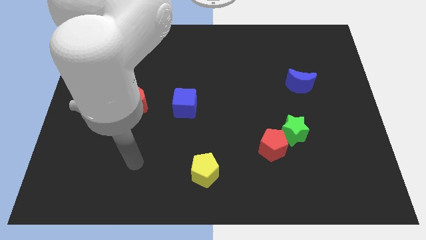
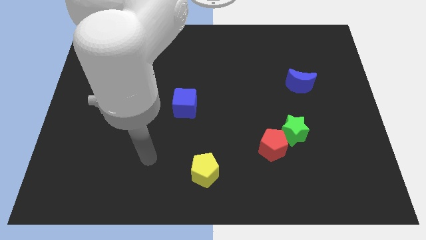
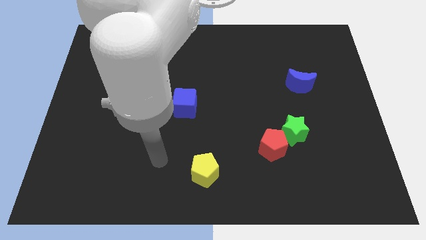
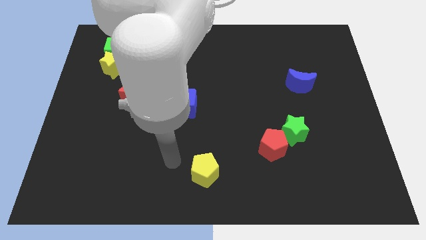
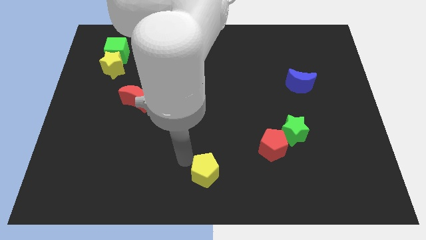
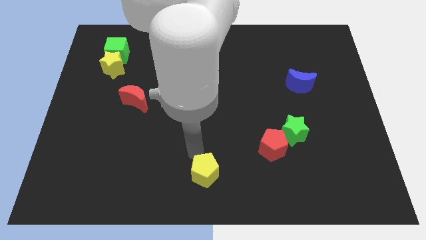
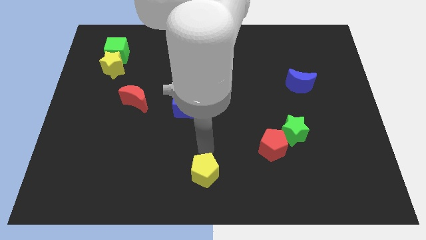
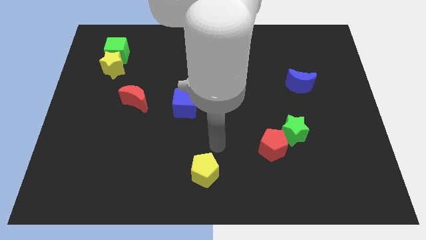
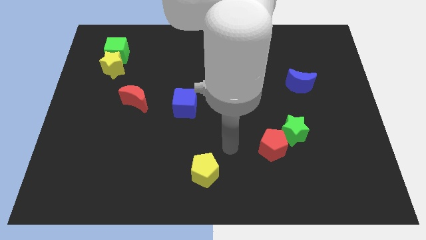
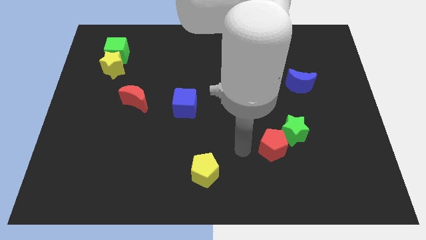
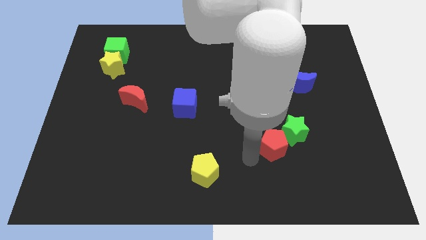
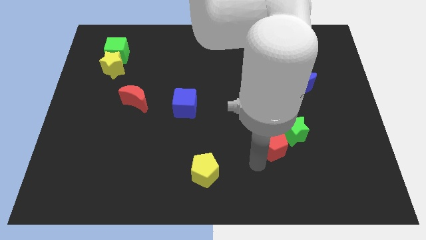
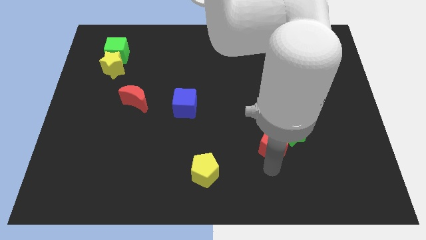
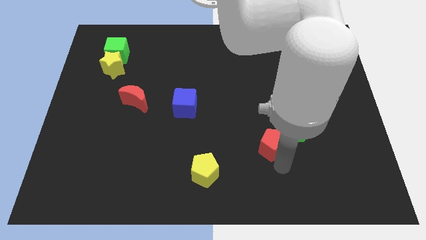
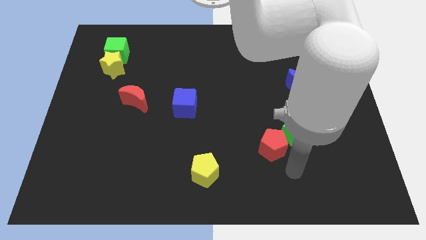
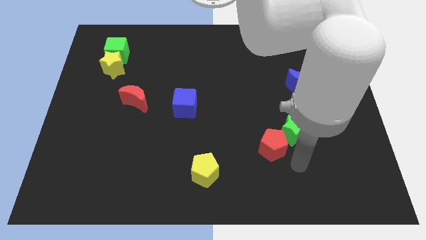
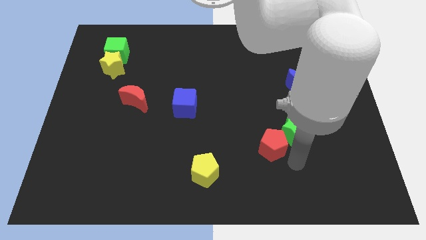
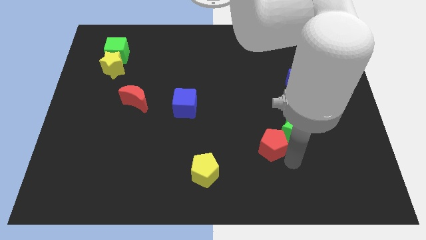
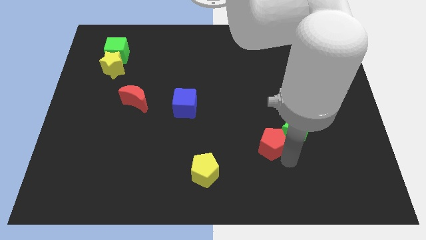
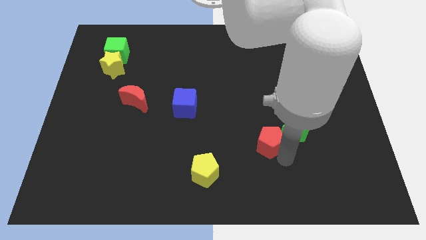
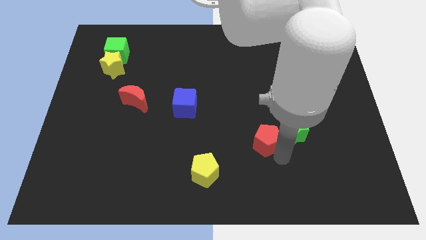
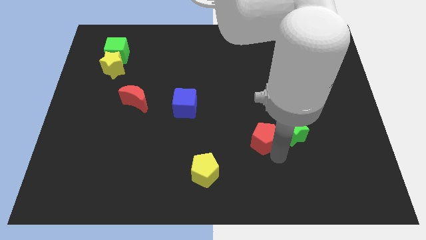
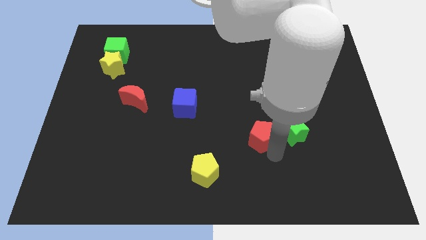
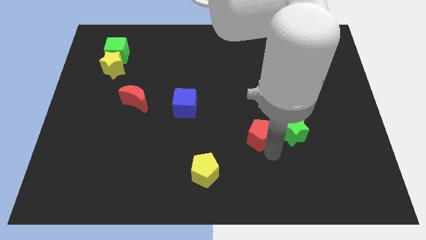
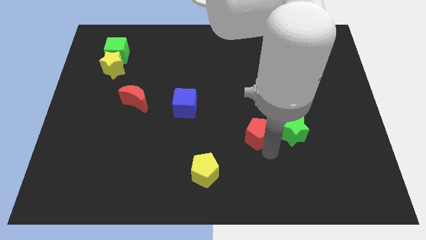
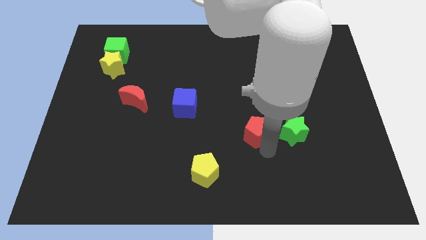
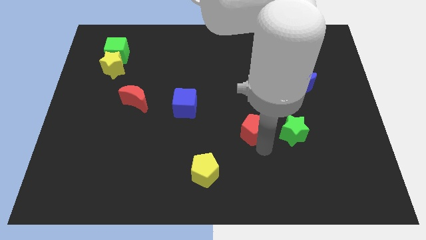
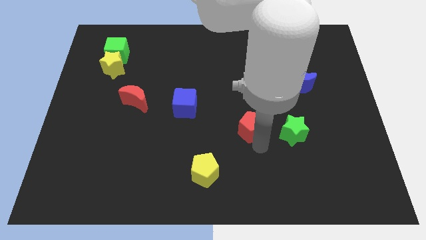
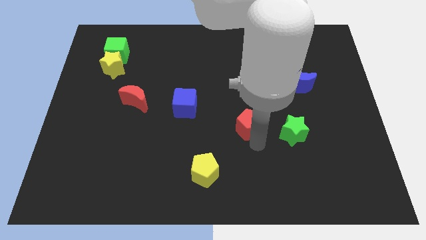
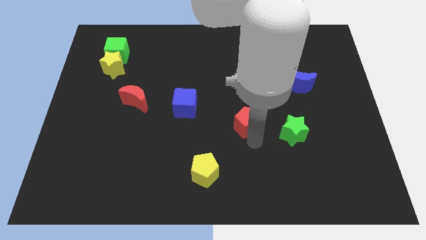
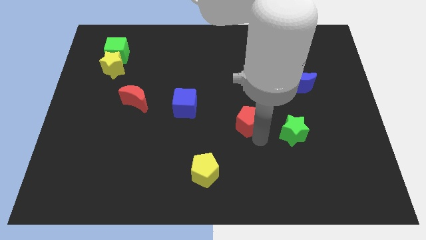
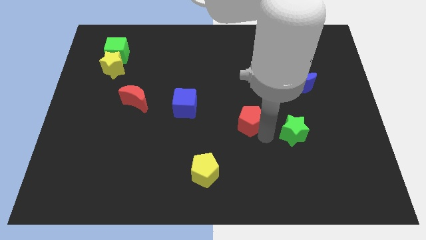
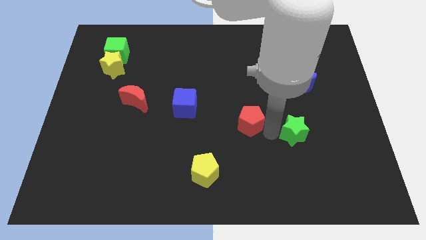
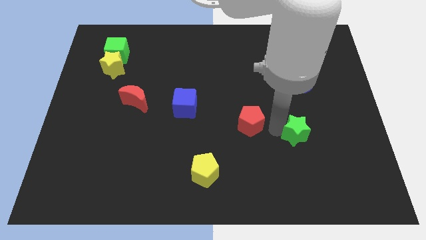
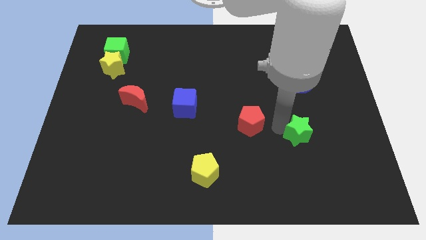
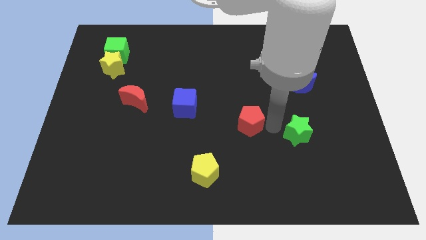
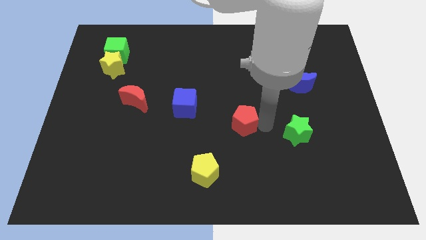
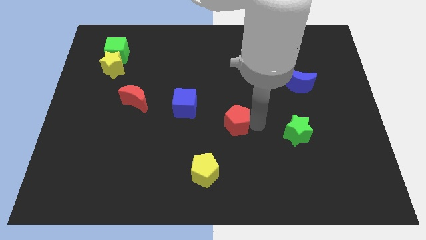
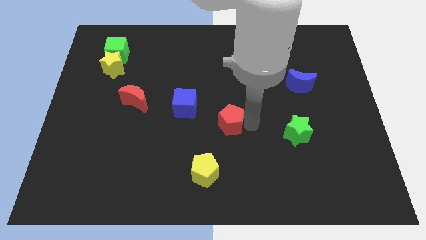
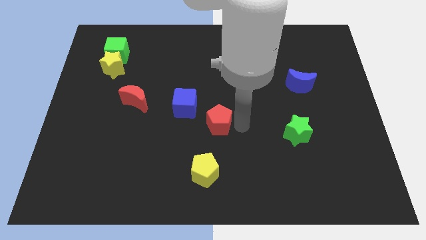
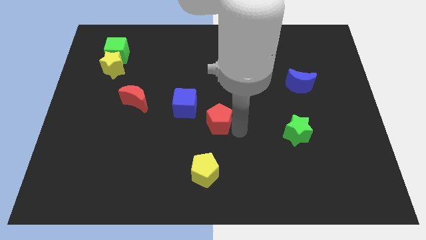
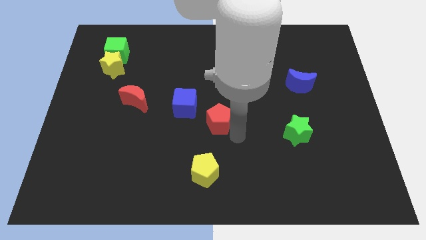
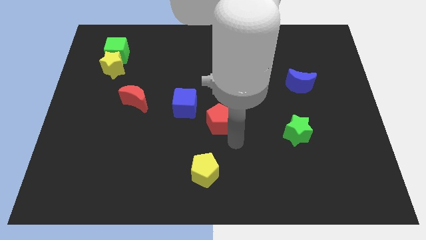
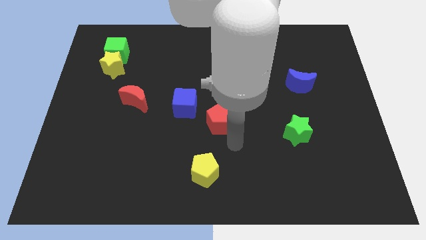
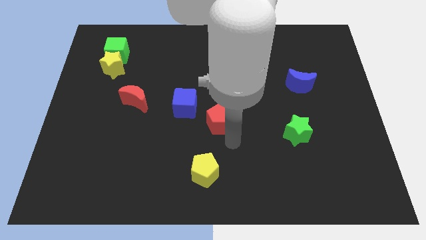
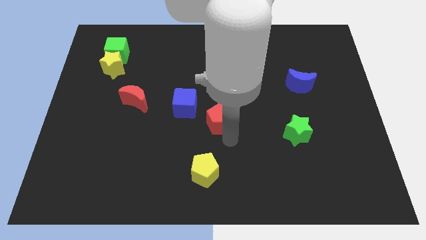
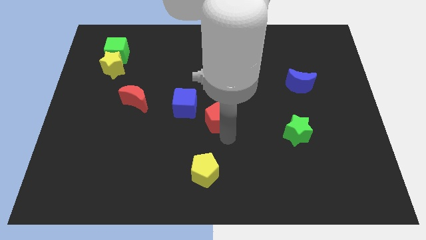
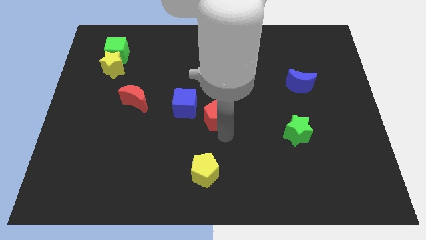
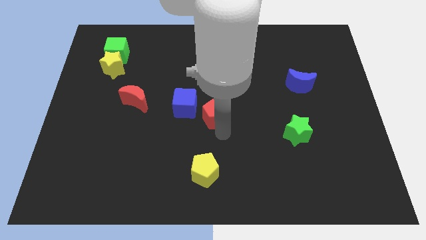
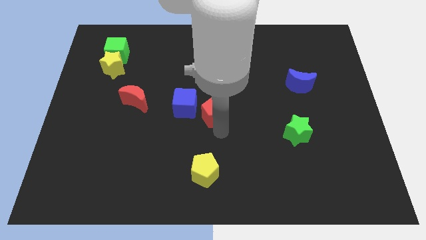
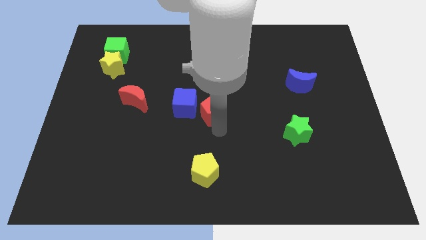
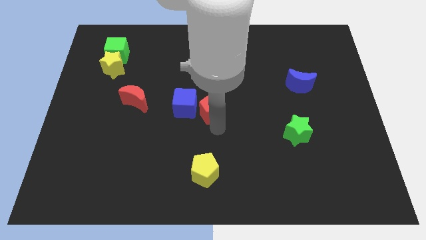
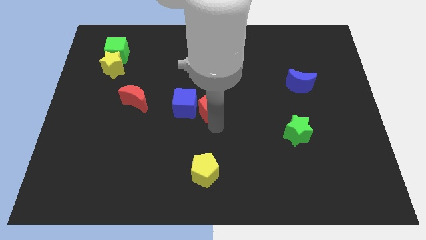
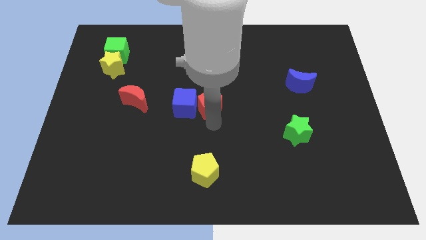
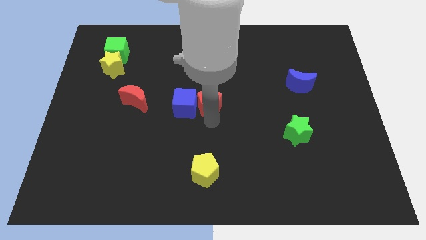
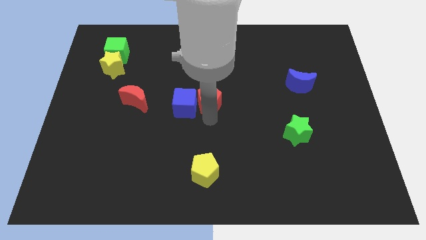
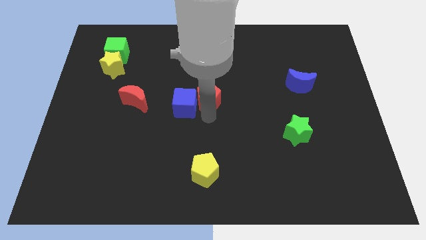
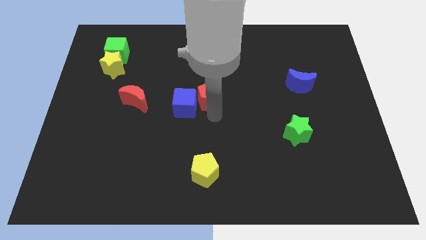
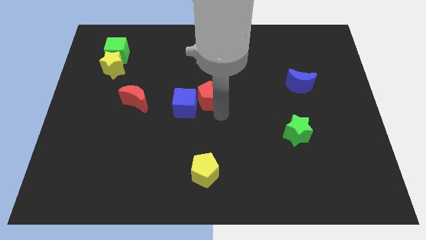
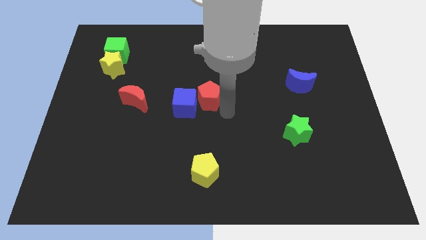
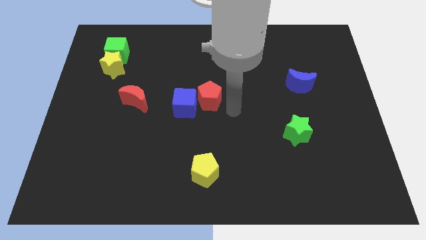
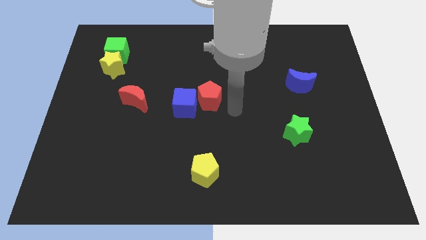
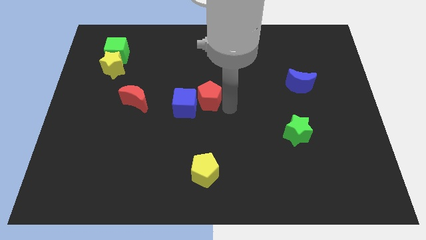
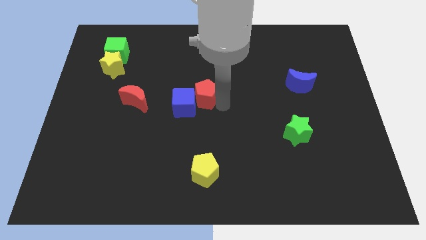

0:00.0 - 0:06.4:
push the red pentagon upwards and left diagonally

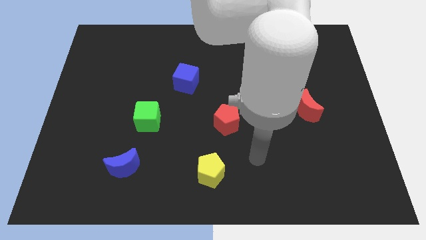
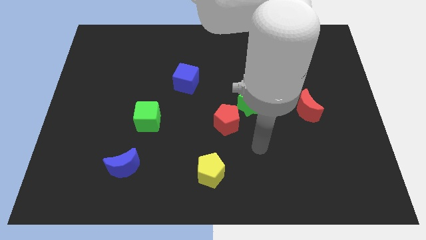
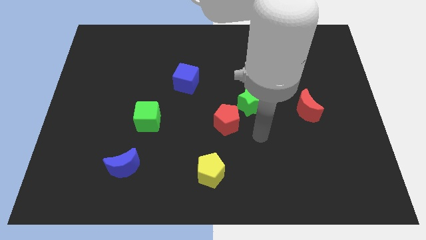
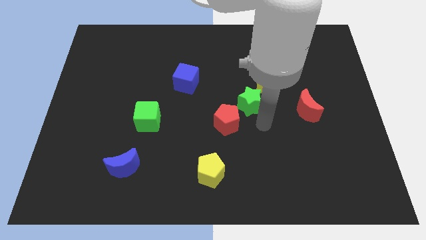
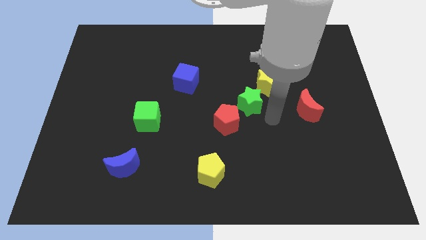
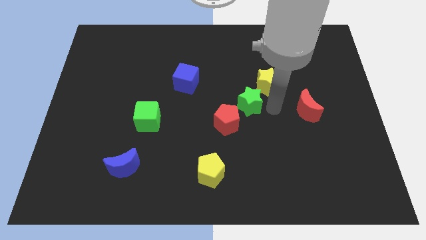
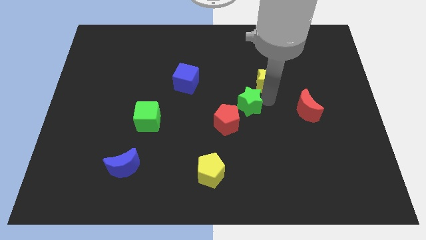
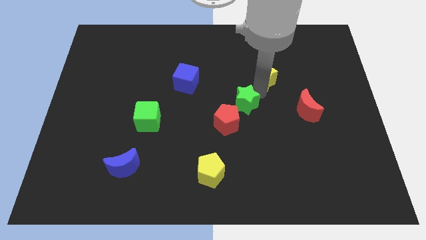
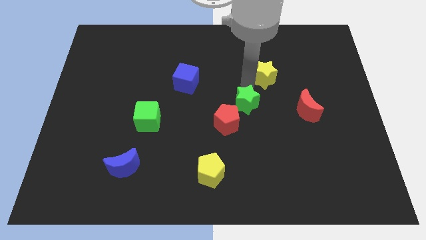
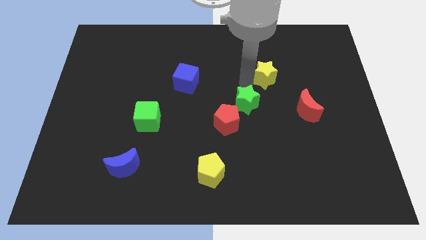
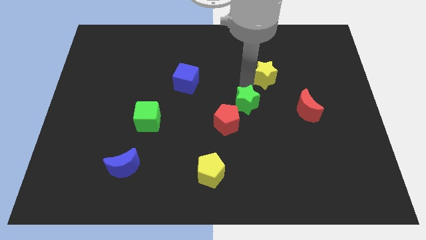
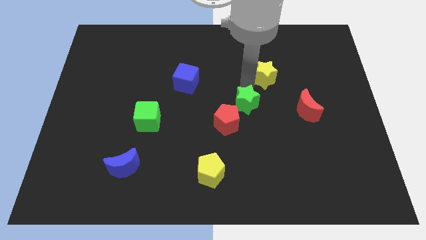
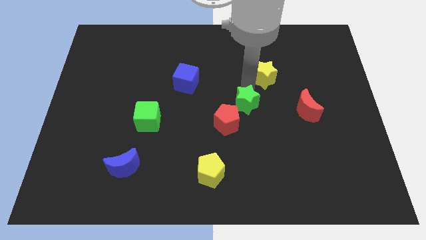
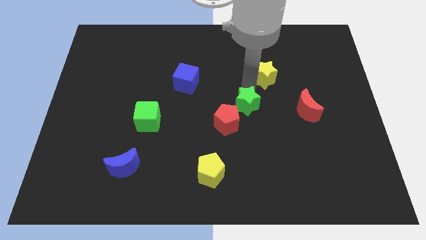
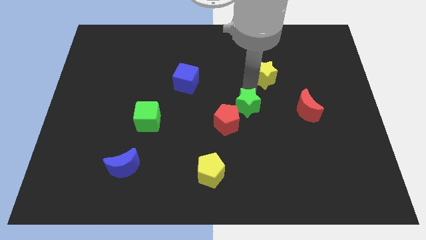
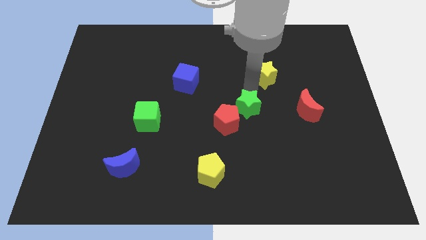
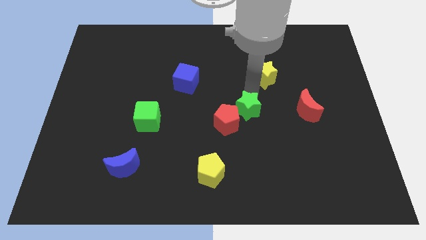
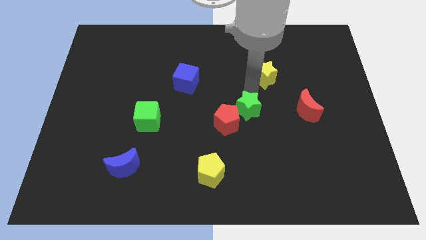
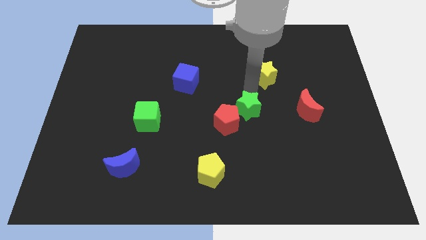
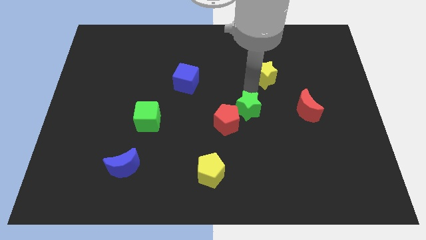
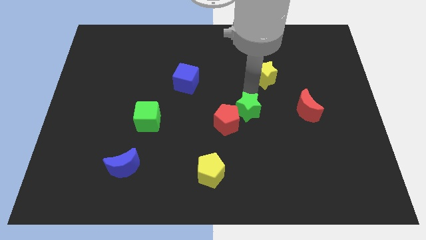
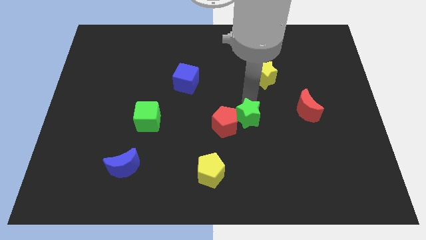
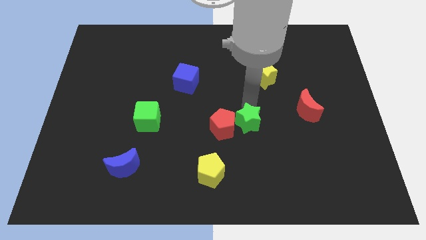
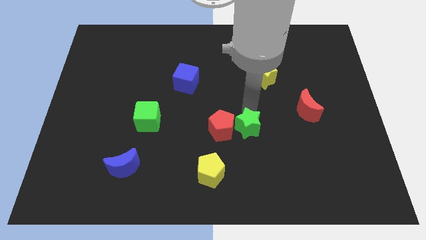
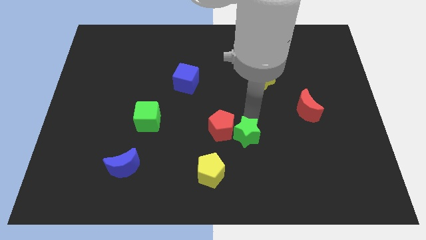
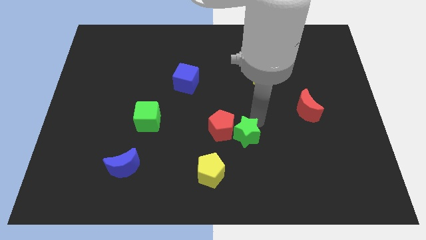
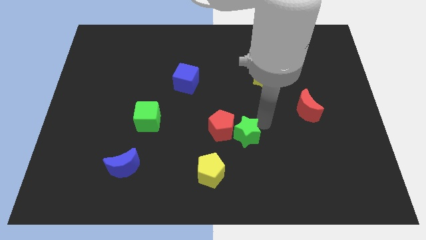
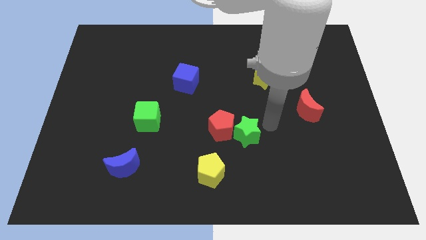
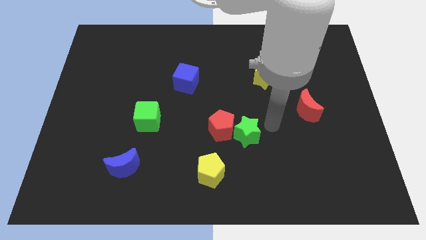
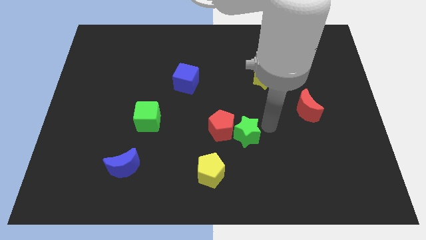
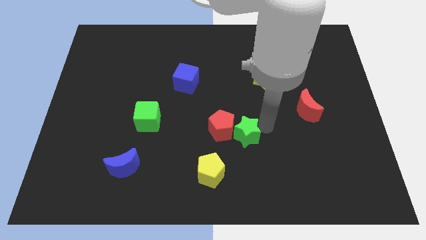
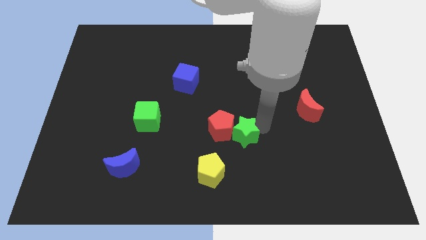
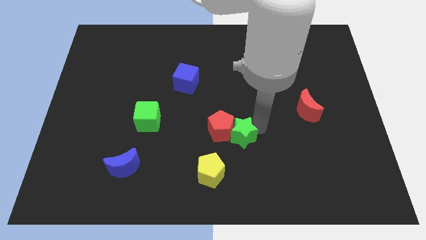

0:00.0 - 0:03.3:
slightly move the green star down and then left
